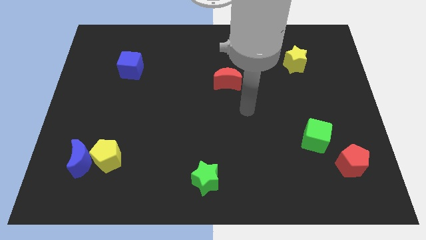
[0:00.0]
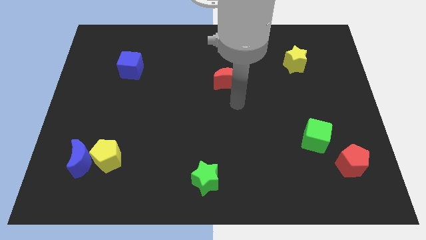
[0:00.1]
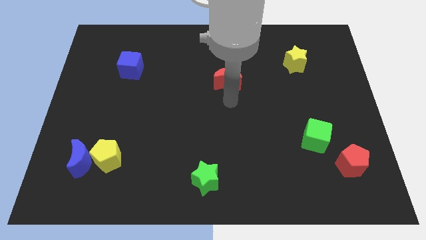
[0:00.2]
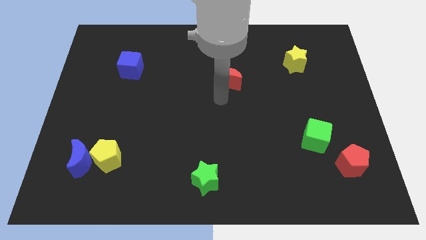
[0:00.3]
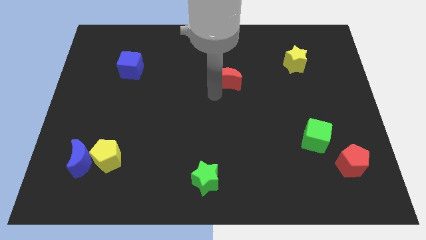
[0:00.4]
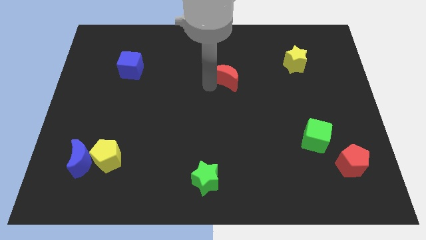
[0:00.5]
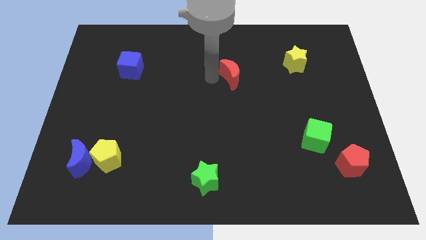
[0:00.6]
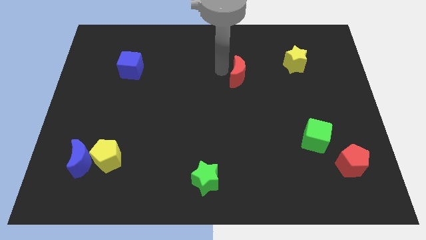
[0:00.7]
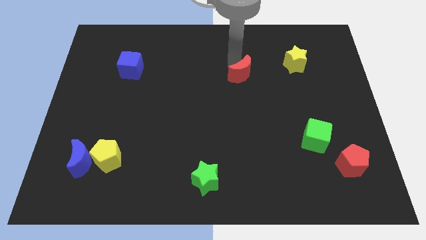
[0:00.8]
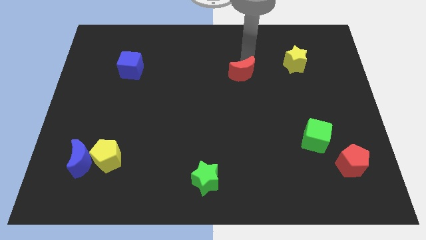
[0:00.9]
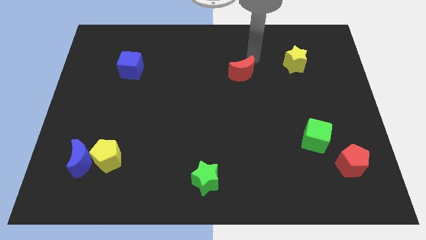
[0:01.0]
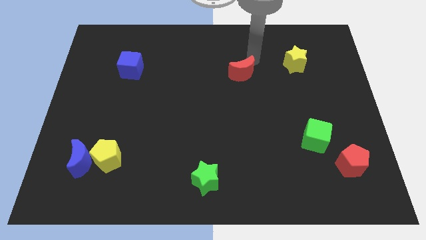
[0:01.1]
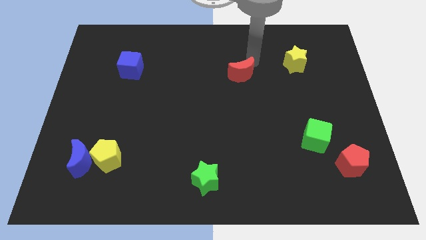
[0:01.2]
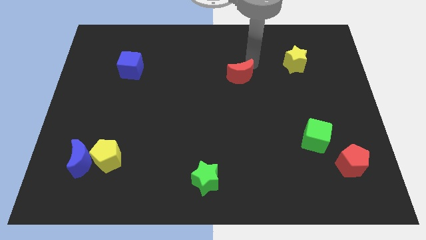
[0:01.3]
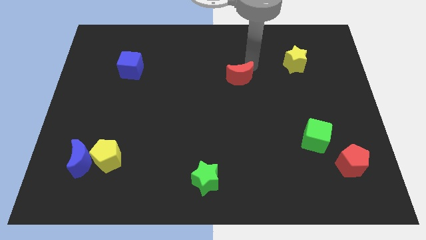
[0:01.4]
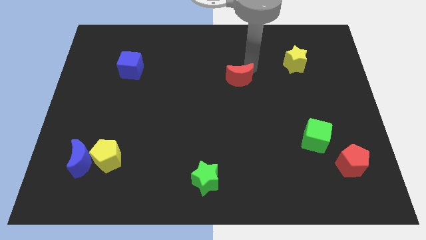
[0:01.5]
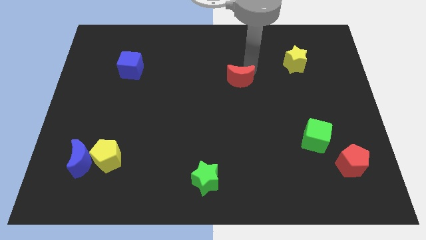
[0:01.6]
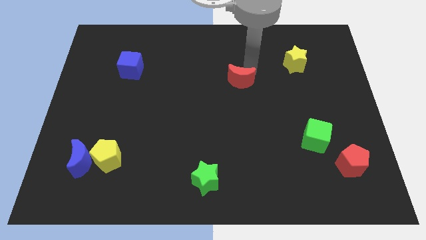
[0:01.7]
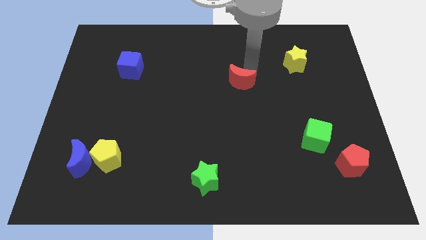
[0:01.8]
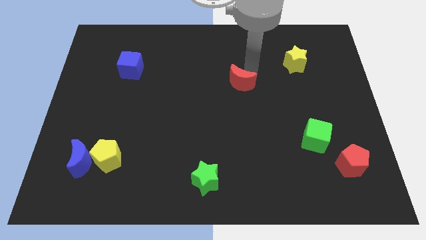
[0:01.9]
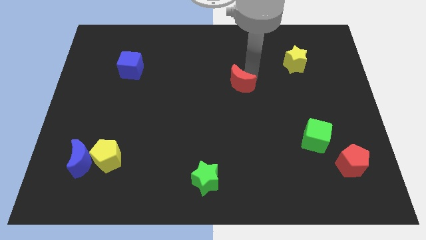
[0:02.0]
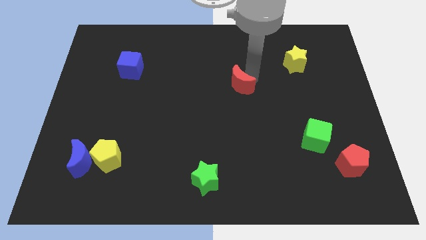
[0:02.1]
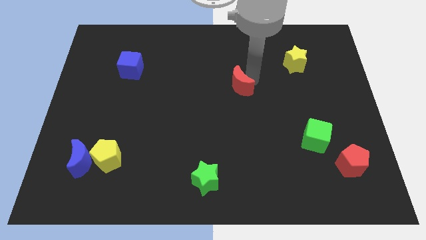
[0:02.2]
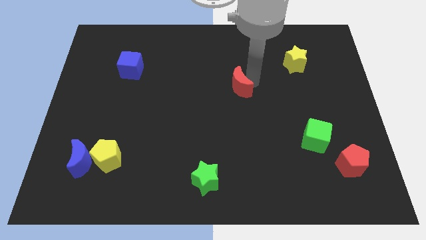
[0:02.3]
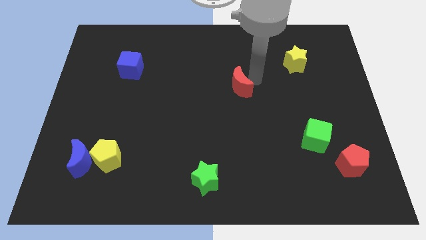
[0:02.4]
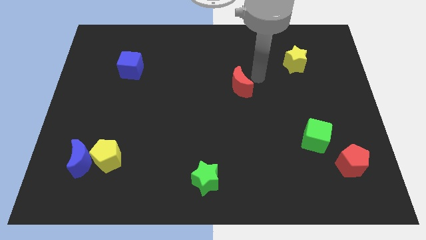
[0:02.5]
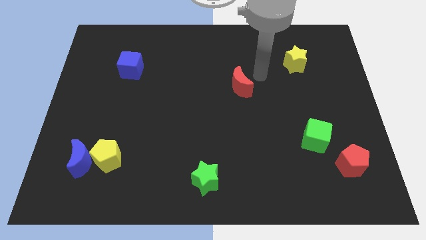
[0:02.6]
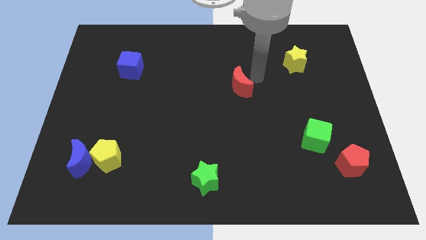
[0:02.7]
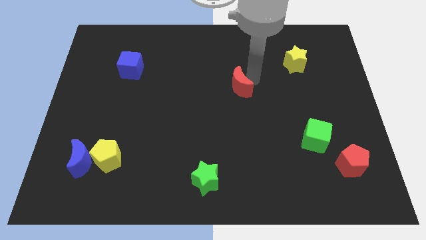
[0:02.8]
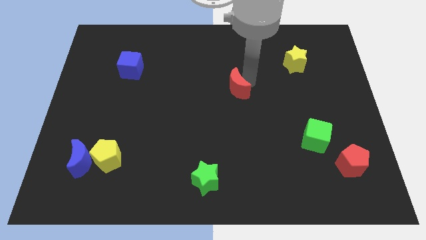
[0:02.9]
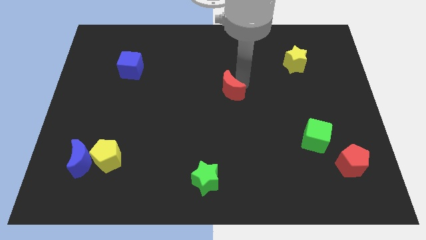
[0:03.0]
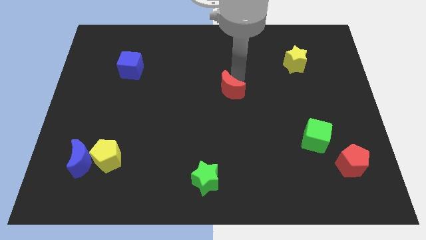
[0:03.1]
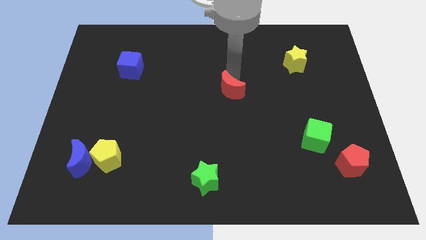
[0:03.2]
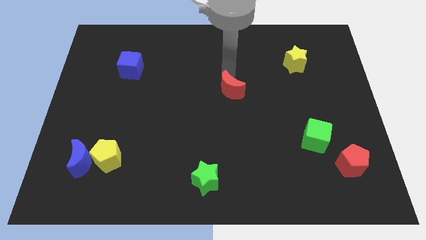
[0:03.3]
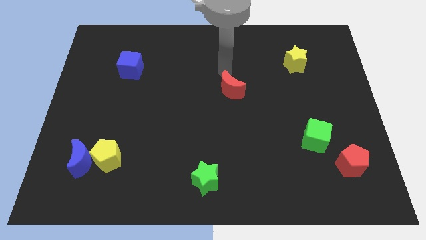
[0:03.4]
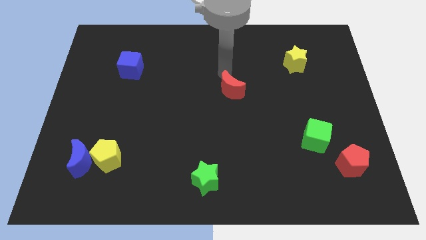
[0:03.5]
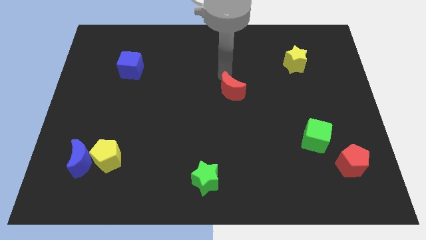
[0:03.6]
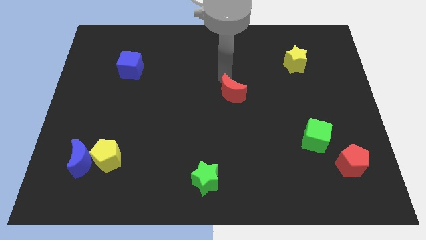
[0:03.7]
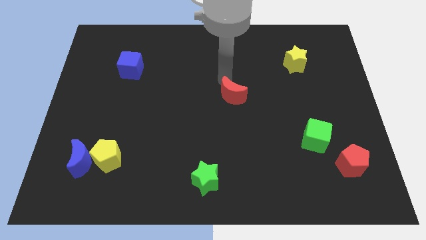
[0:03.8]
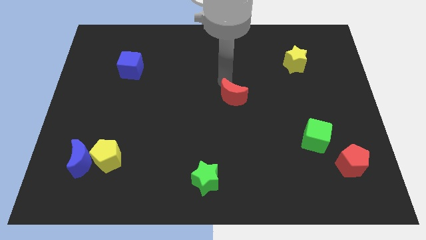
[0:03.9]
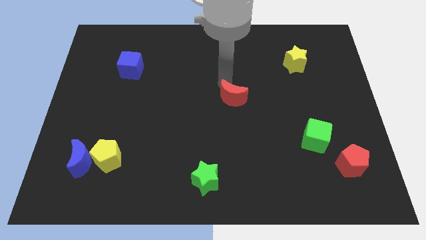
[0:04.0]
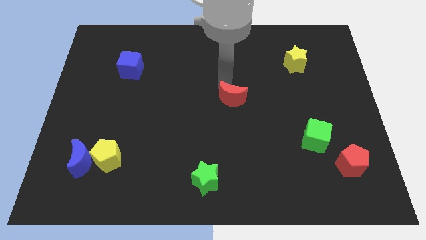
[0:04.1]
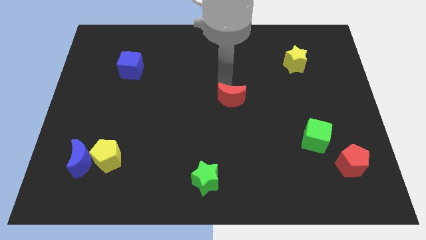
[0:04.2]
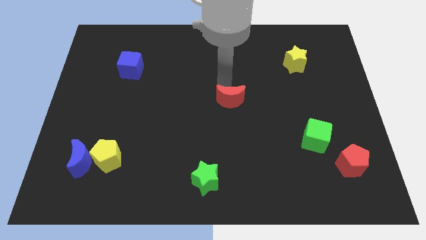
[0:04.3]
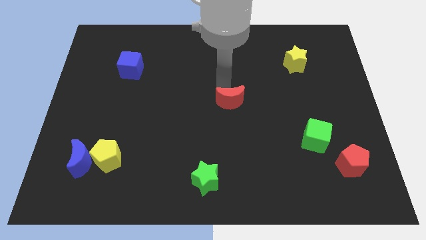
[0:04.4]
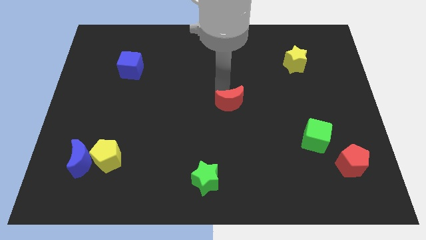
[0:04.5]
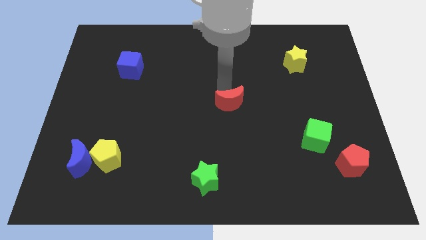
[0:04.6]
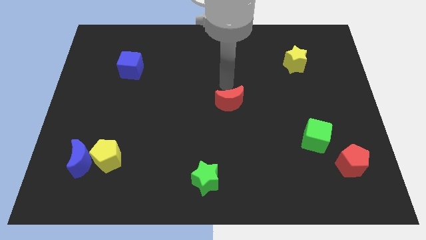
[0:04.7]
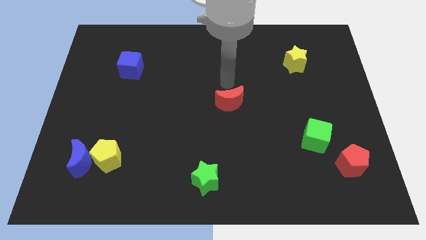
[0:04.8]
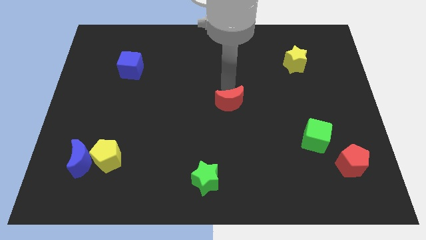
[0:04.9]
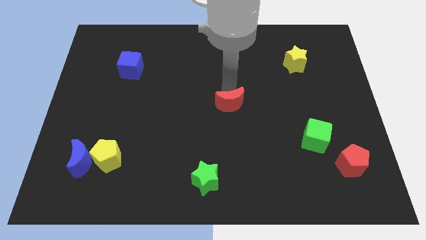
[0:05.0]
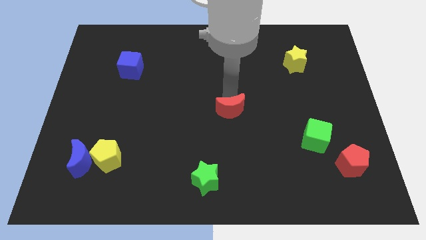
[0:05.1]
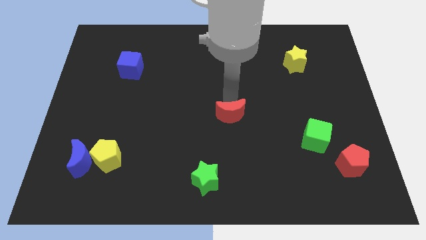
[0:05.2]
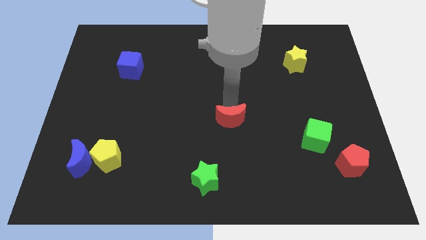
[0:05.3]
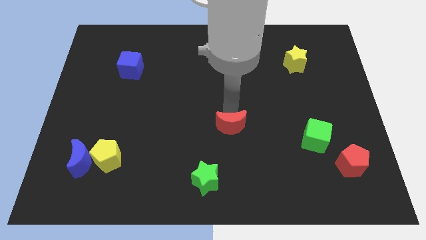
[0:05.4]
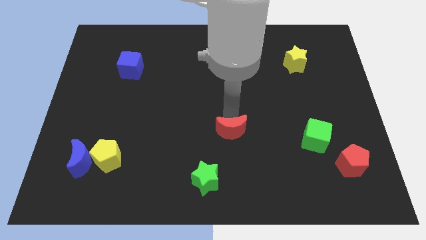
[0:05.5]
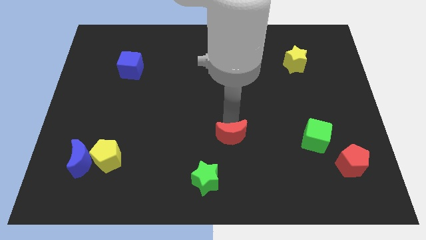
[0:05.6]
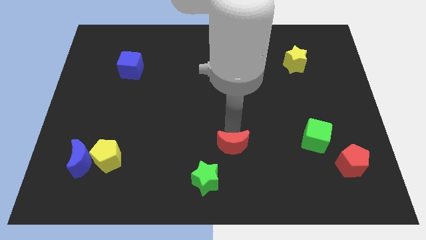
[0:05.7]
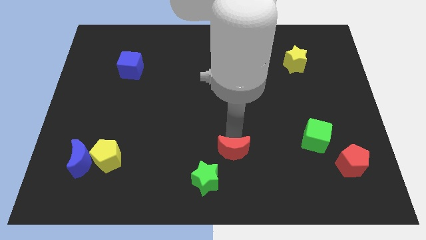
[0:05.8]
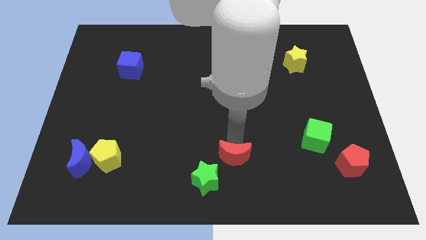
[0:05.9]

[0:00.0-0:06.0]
move the red moon to the bottom side
